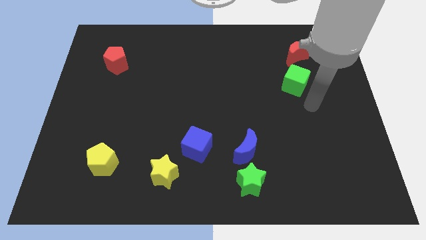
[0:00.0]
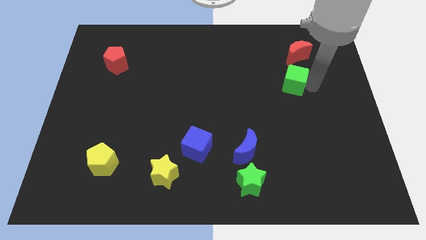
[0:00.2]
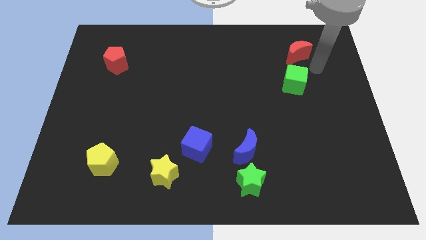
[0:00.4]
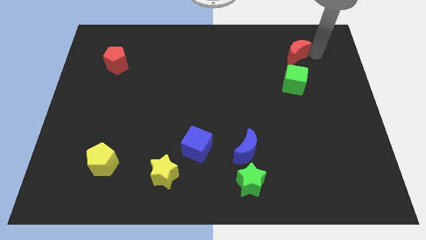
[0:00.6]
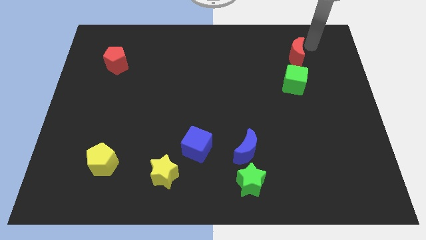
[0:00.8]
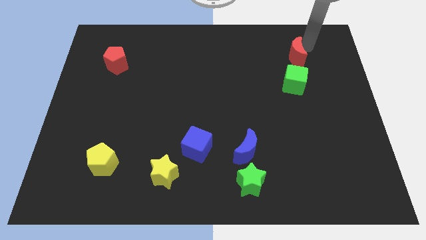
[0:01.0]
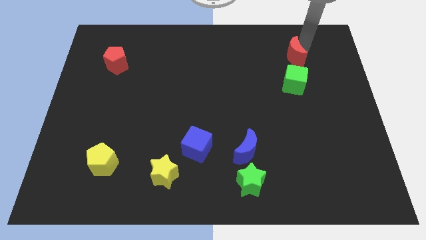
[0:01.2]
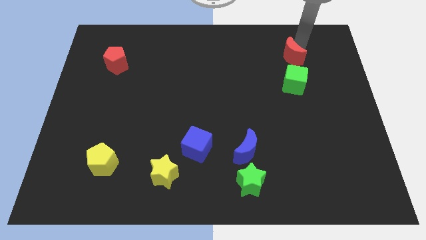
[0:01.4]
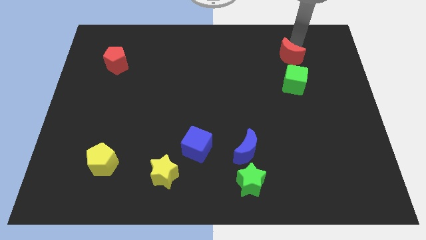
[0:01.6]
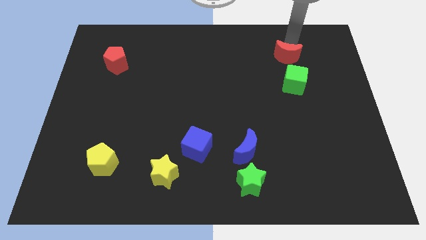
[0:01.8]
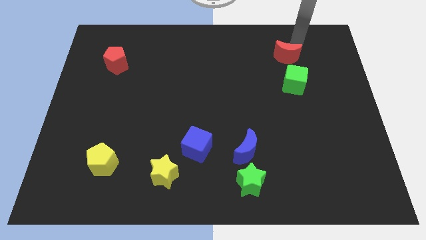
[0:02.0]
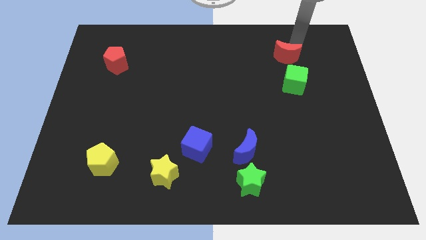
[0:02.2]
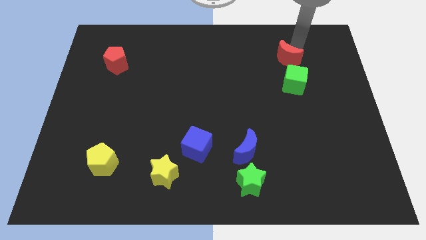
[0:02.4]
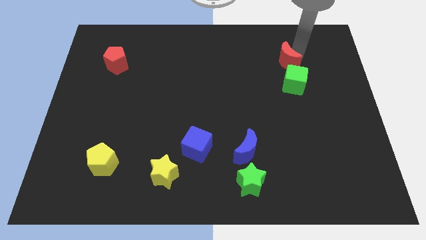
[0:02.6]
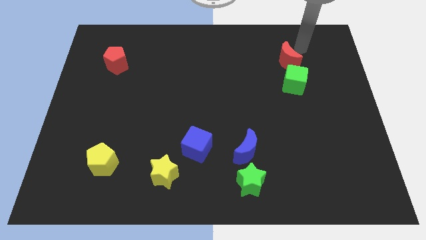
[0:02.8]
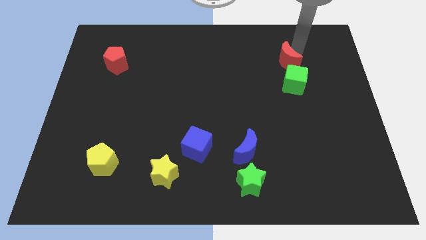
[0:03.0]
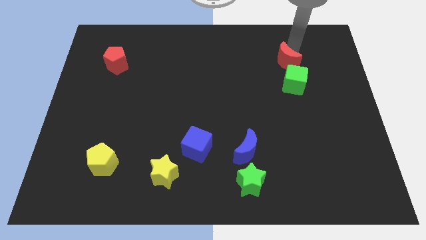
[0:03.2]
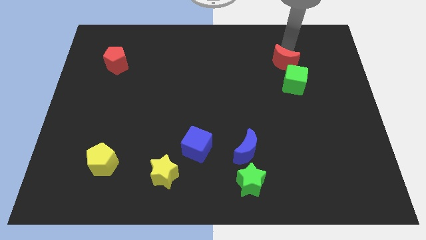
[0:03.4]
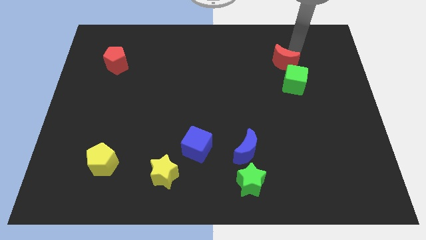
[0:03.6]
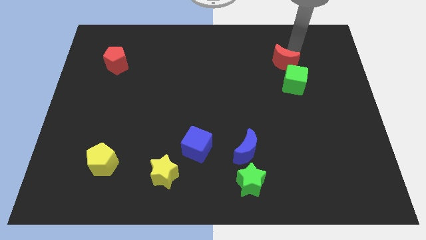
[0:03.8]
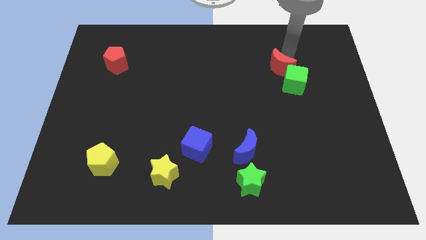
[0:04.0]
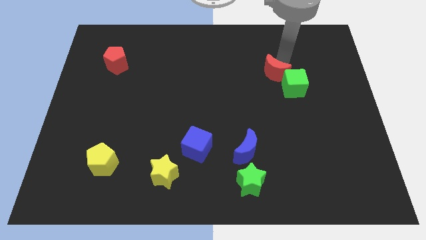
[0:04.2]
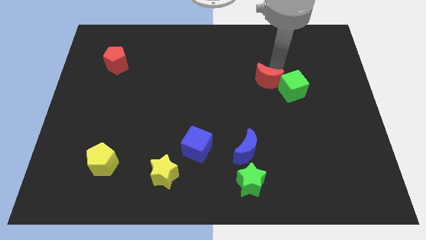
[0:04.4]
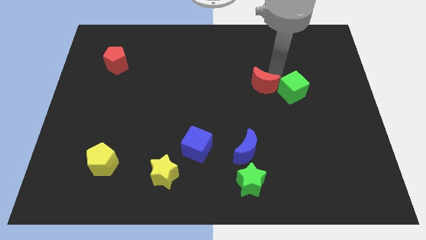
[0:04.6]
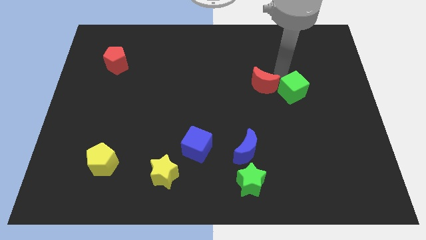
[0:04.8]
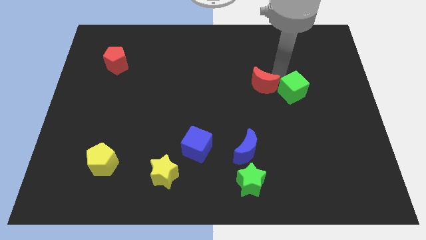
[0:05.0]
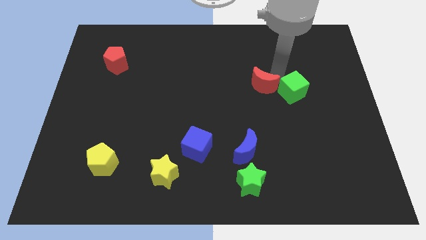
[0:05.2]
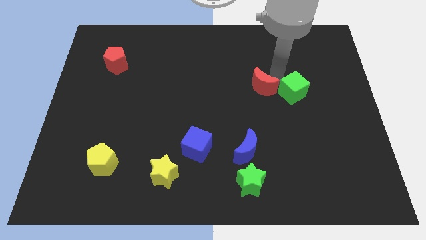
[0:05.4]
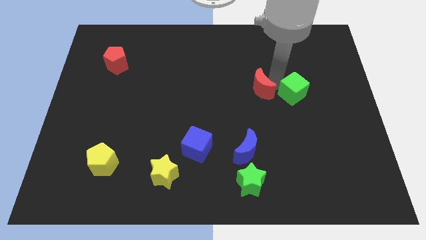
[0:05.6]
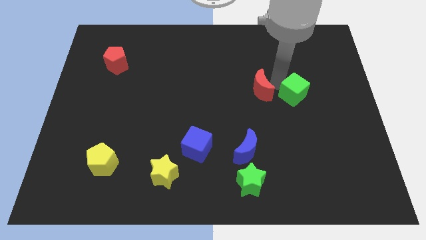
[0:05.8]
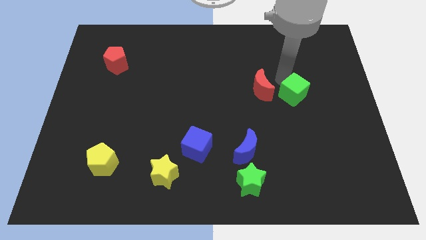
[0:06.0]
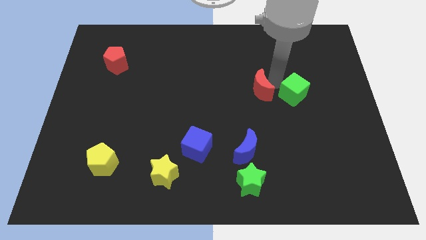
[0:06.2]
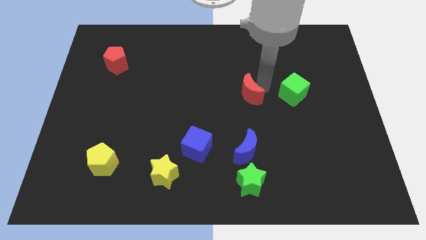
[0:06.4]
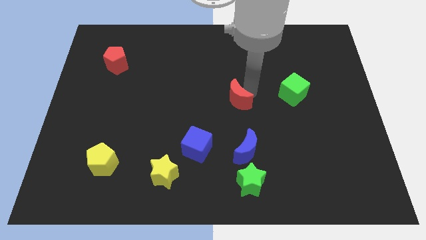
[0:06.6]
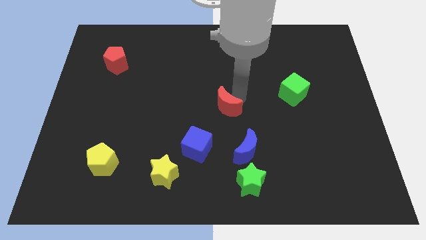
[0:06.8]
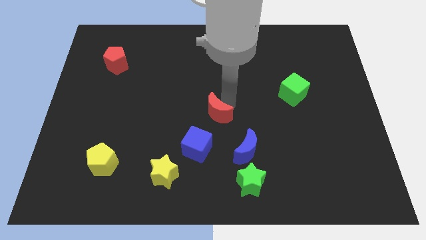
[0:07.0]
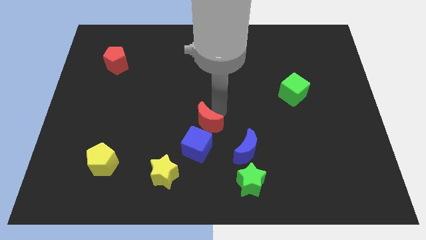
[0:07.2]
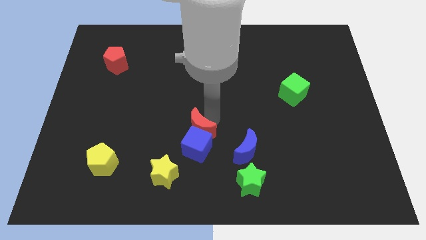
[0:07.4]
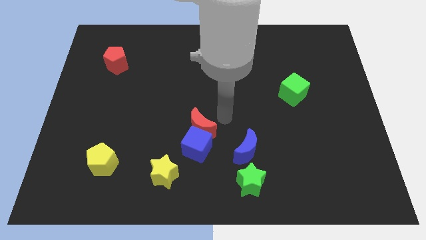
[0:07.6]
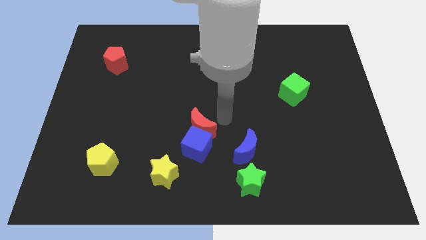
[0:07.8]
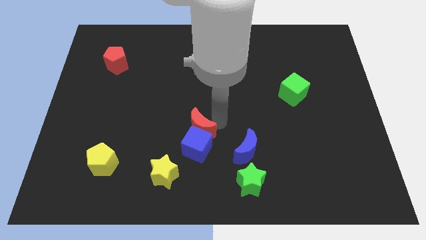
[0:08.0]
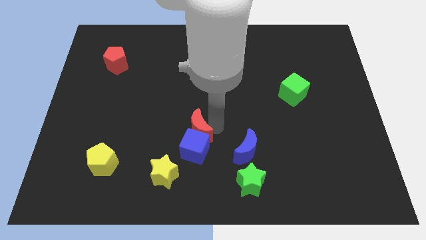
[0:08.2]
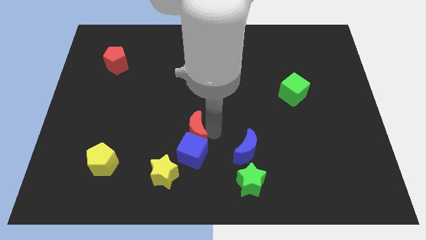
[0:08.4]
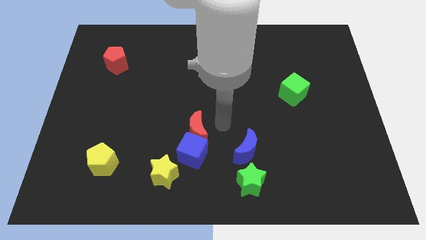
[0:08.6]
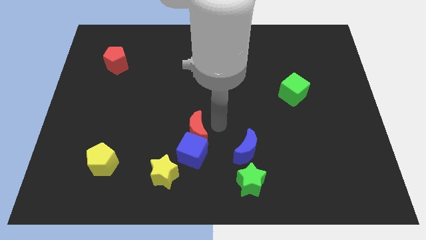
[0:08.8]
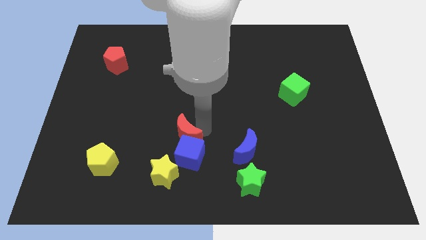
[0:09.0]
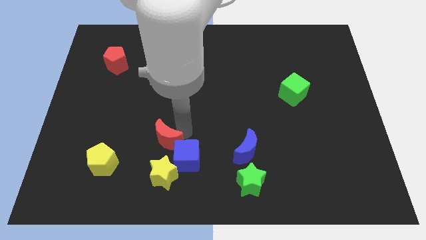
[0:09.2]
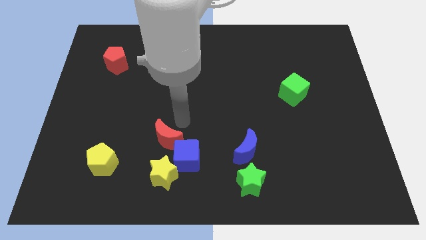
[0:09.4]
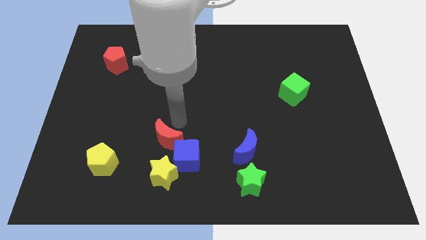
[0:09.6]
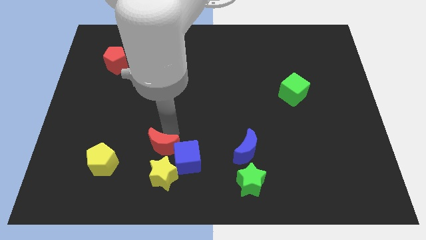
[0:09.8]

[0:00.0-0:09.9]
put the red moon to the right side of the yellow pentagon

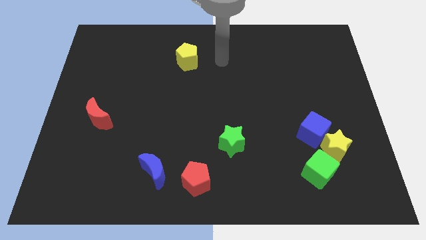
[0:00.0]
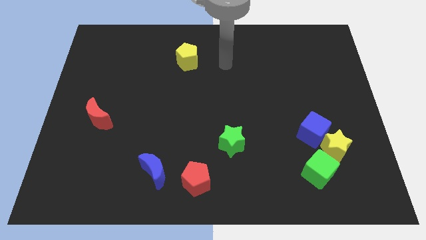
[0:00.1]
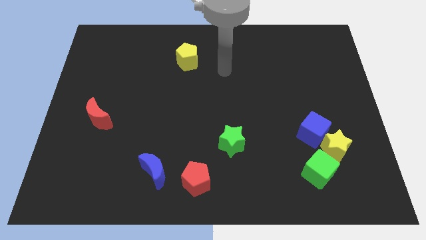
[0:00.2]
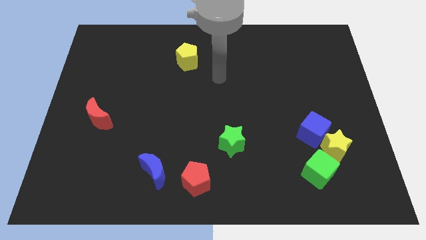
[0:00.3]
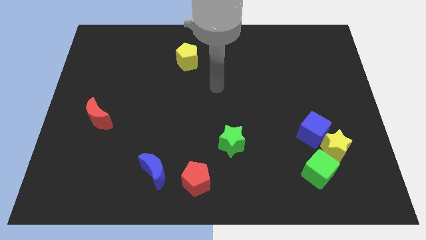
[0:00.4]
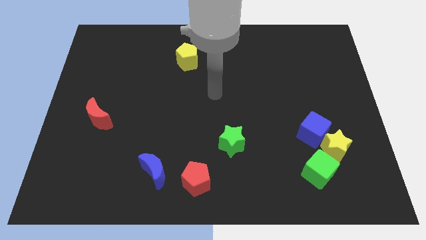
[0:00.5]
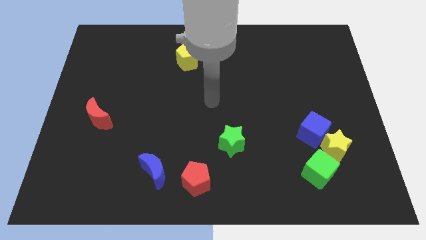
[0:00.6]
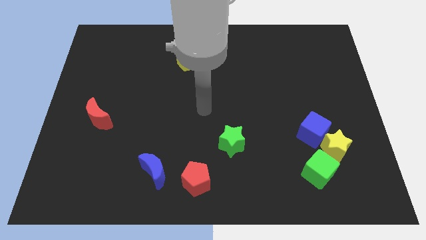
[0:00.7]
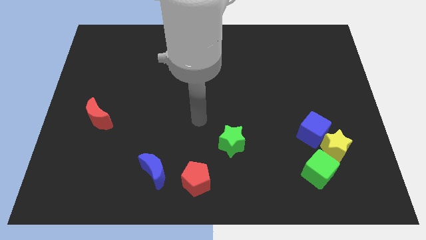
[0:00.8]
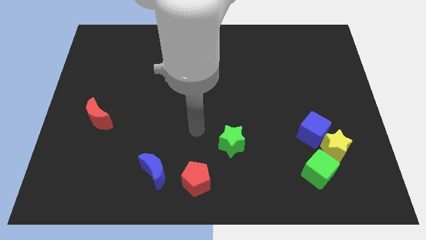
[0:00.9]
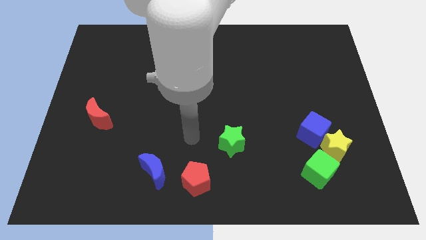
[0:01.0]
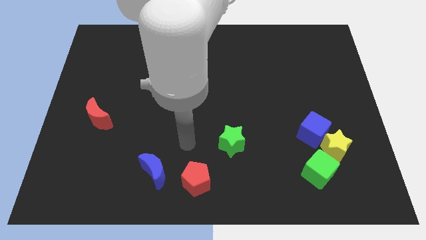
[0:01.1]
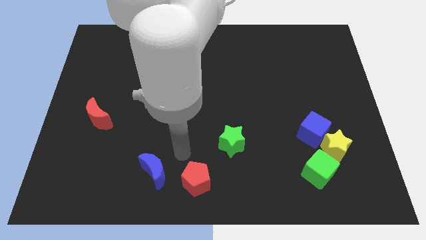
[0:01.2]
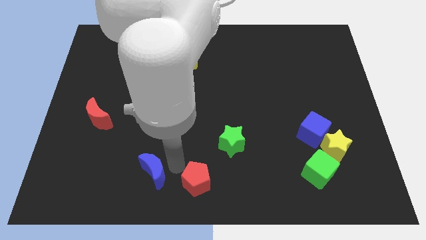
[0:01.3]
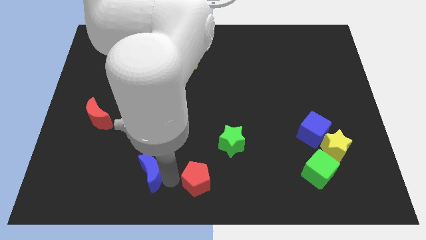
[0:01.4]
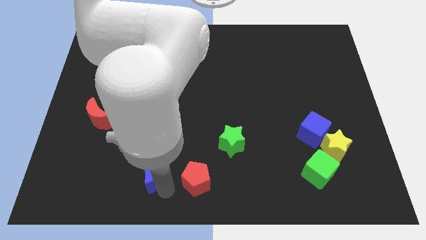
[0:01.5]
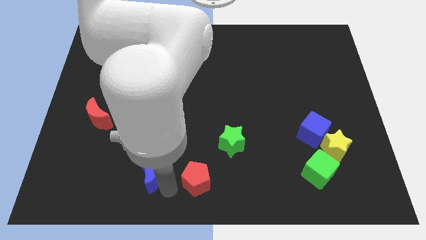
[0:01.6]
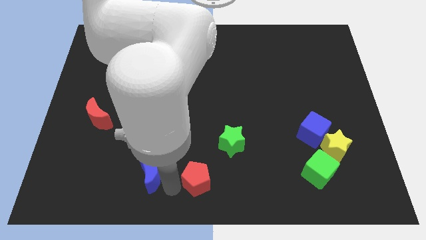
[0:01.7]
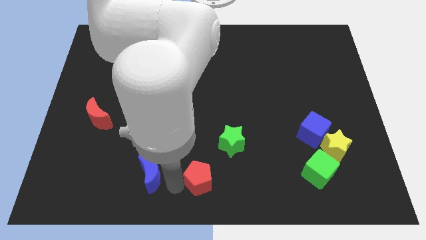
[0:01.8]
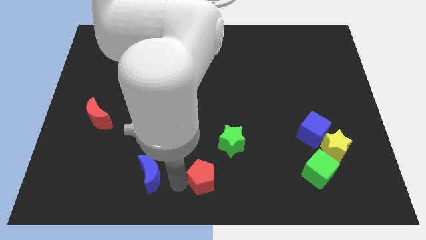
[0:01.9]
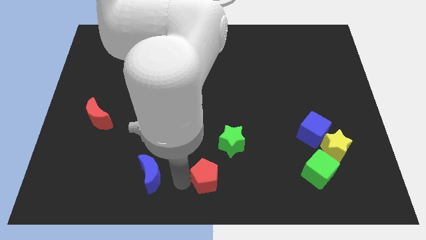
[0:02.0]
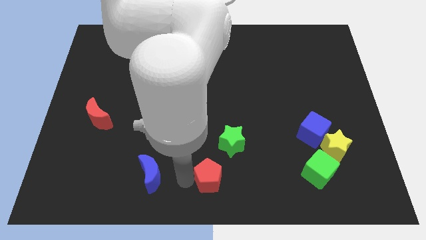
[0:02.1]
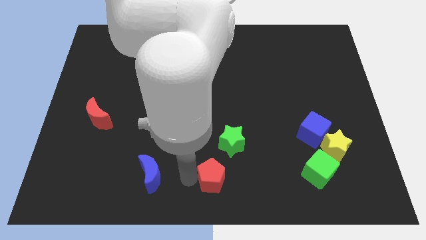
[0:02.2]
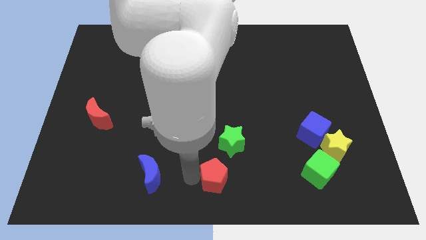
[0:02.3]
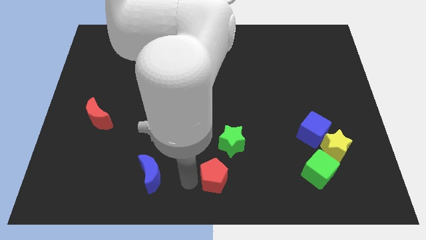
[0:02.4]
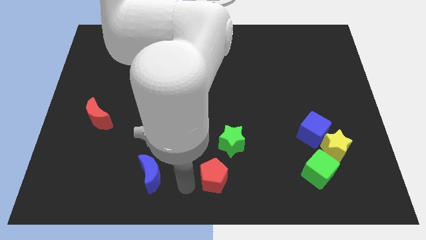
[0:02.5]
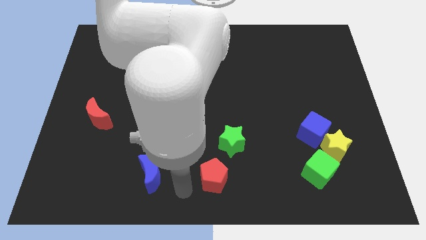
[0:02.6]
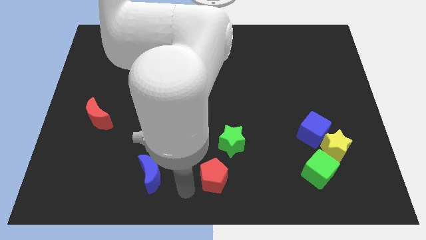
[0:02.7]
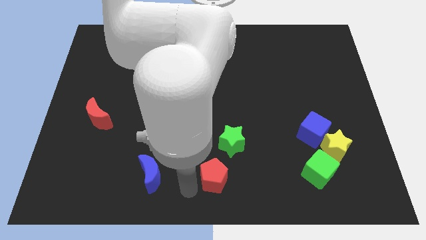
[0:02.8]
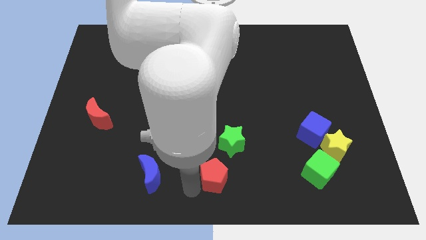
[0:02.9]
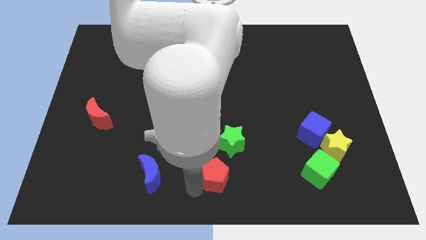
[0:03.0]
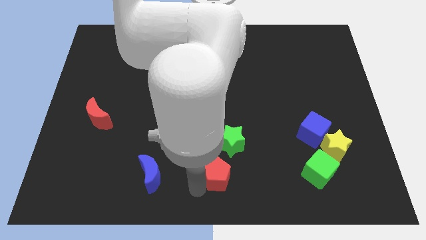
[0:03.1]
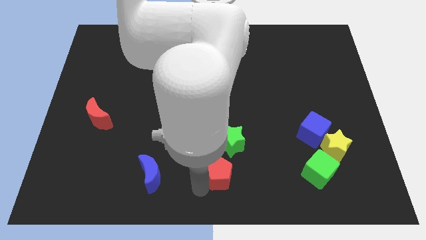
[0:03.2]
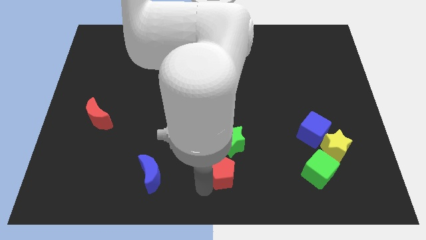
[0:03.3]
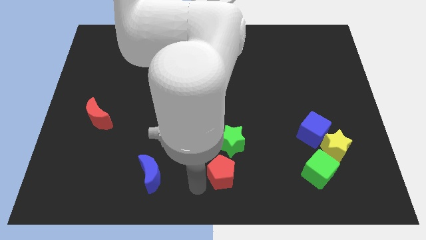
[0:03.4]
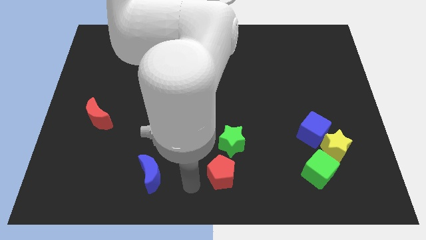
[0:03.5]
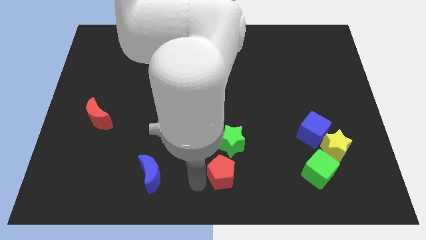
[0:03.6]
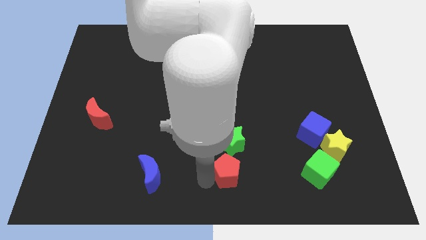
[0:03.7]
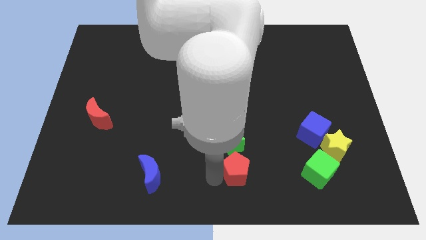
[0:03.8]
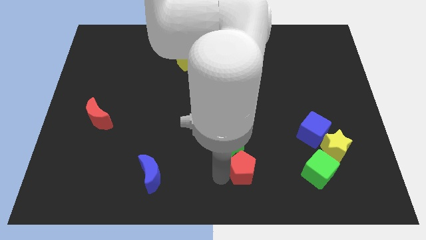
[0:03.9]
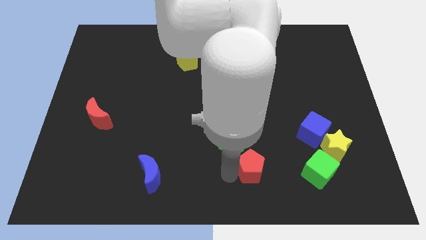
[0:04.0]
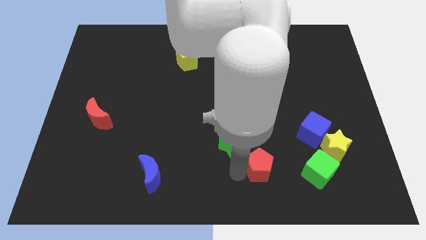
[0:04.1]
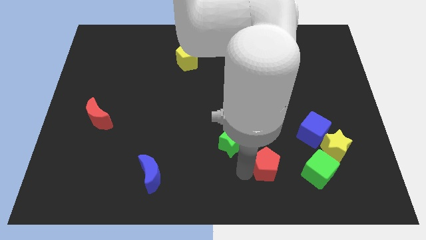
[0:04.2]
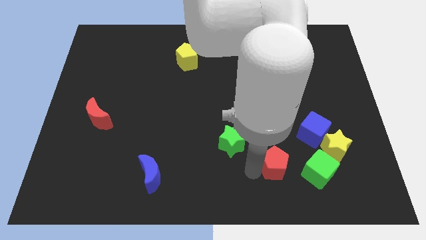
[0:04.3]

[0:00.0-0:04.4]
move the red pentagon diagonally down and to the left of the blue cube
